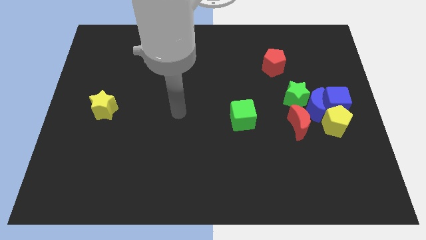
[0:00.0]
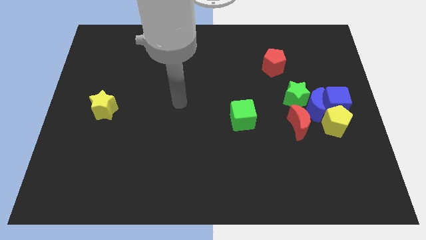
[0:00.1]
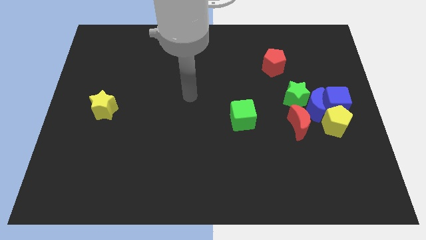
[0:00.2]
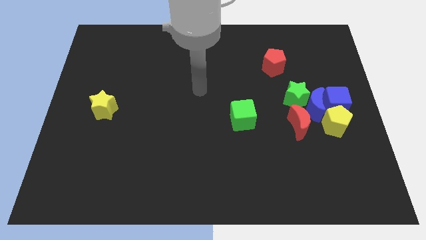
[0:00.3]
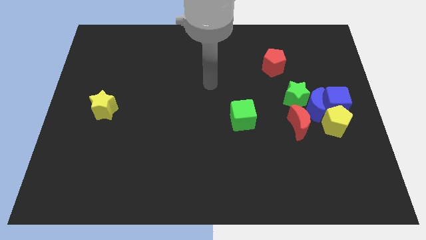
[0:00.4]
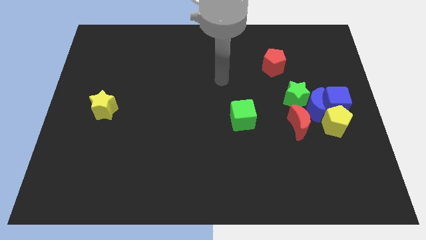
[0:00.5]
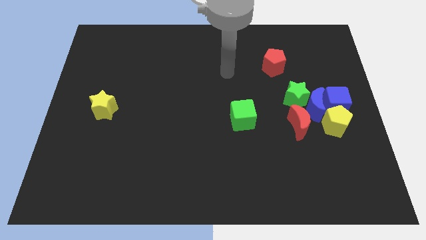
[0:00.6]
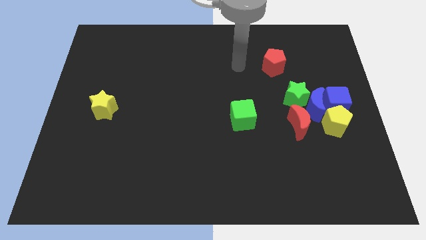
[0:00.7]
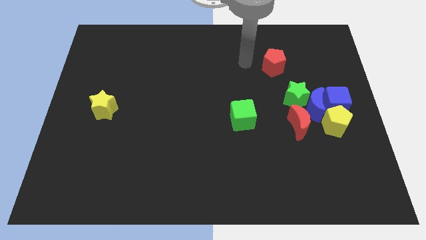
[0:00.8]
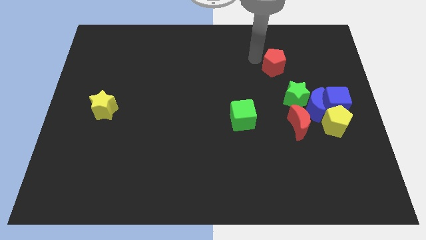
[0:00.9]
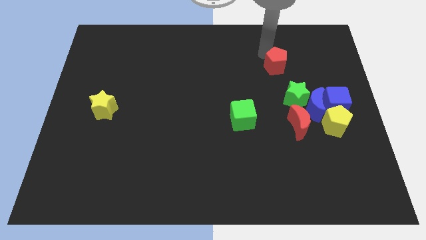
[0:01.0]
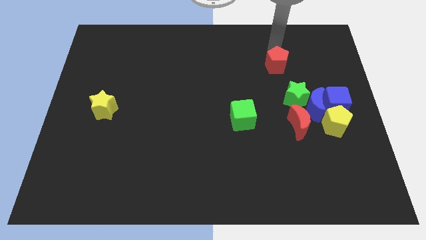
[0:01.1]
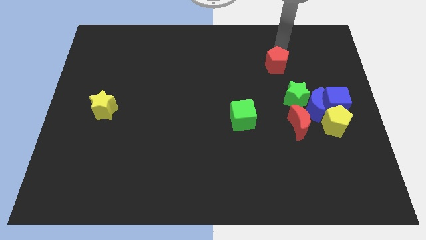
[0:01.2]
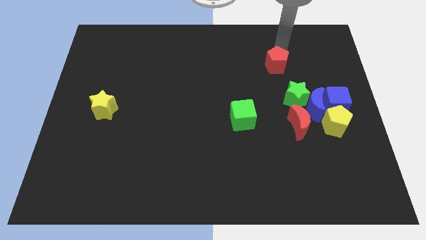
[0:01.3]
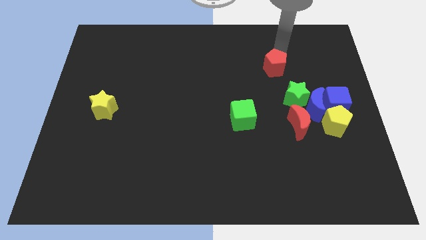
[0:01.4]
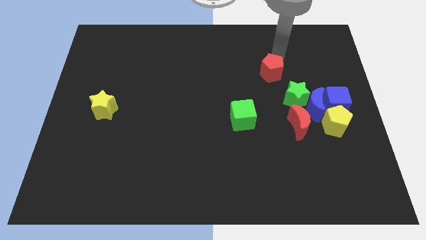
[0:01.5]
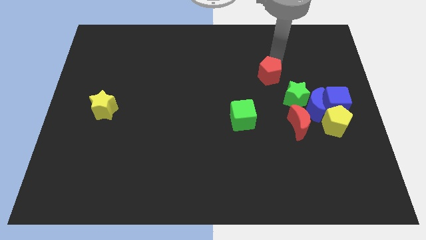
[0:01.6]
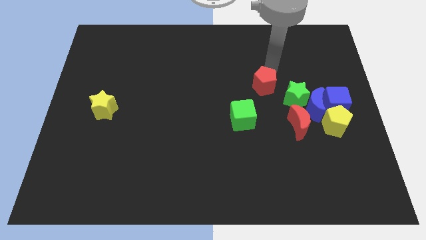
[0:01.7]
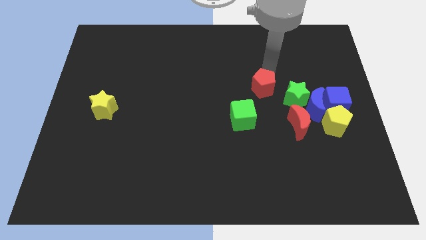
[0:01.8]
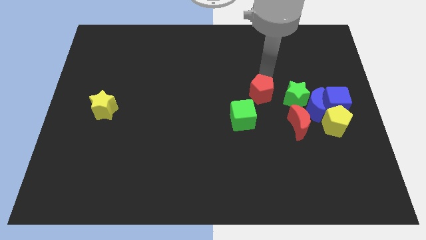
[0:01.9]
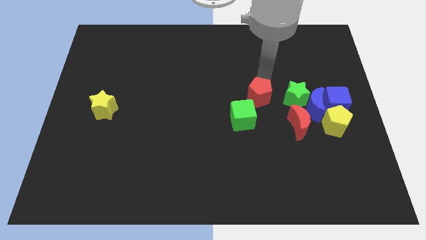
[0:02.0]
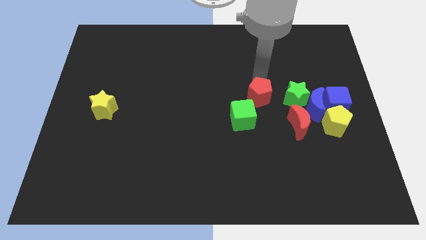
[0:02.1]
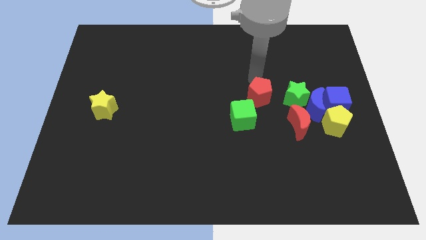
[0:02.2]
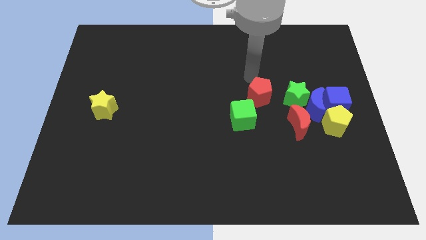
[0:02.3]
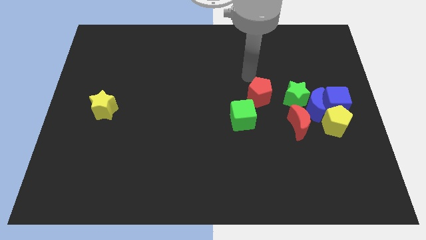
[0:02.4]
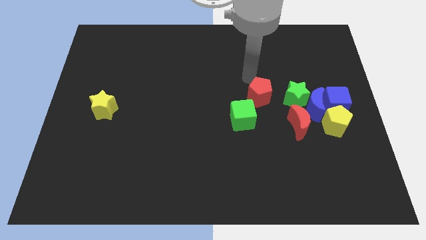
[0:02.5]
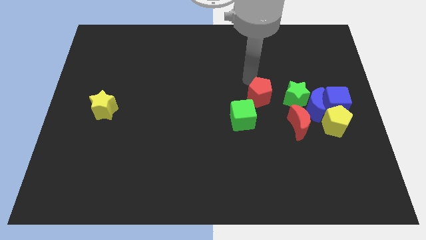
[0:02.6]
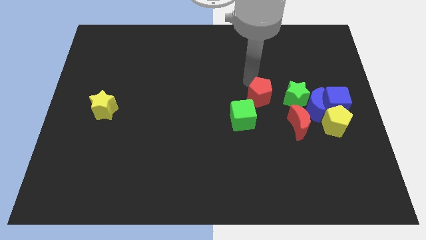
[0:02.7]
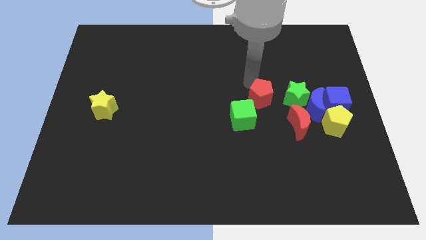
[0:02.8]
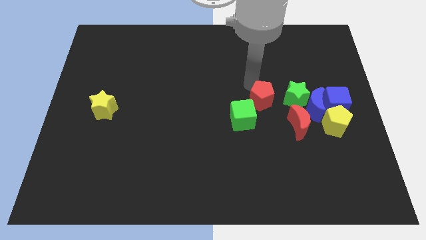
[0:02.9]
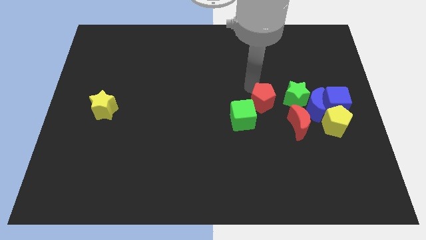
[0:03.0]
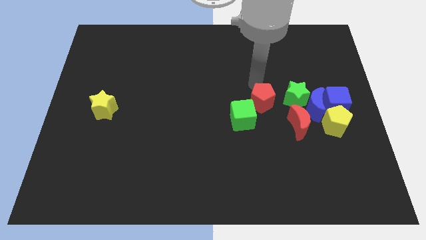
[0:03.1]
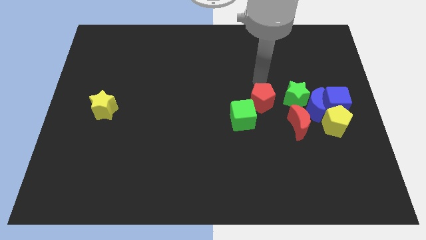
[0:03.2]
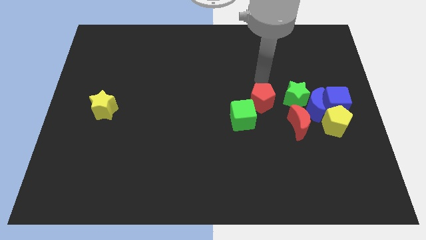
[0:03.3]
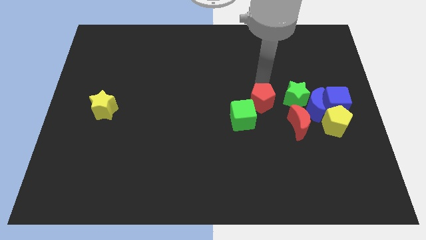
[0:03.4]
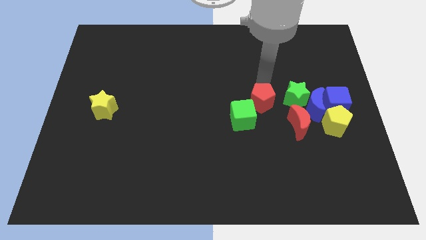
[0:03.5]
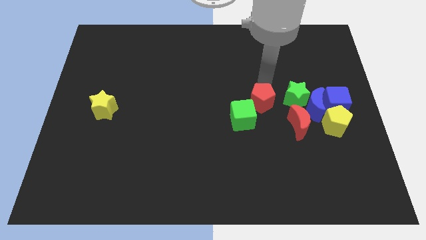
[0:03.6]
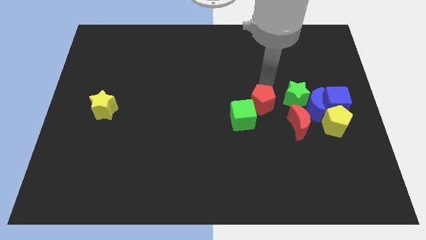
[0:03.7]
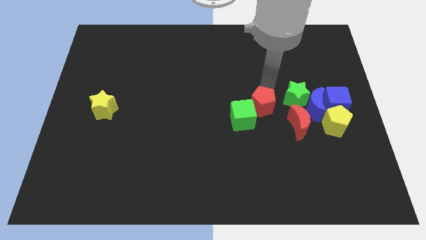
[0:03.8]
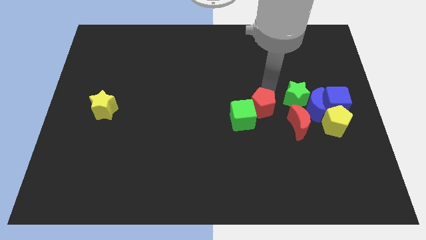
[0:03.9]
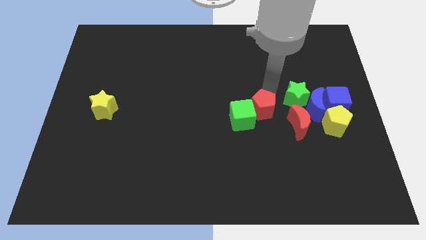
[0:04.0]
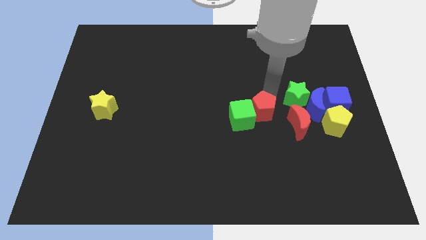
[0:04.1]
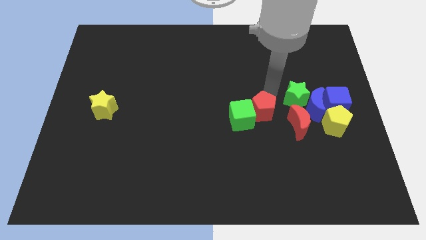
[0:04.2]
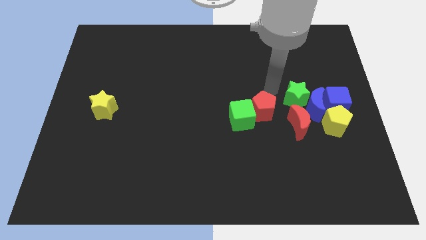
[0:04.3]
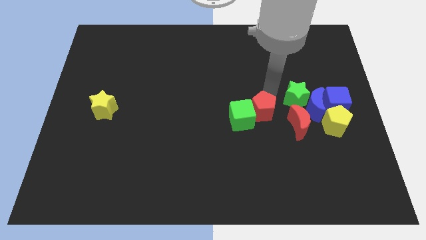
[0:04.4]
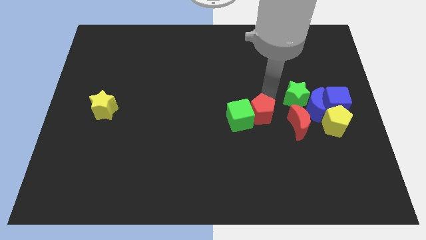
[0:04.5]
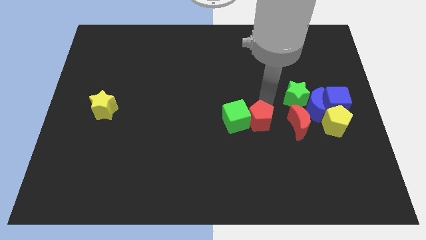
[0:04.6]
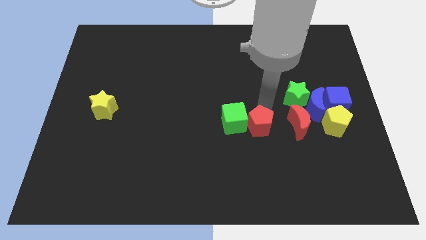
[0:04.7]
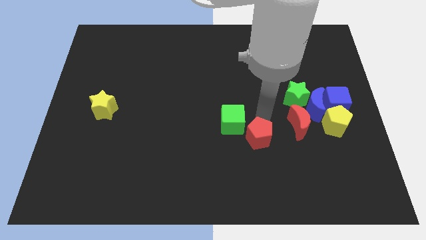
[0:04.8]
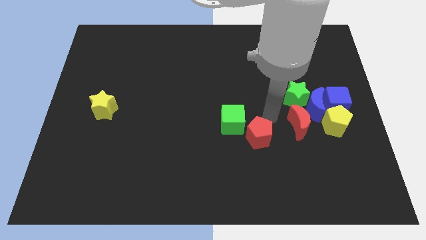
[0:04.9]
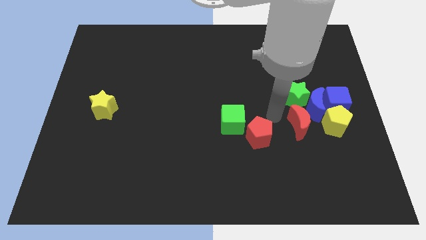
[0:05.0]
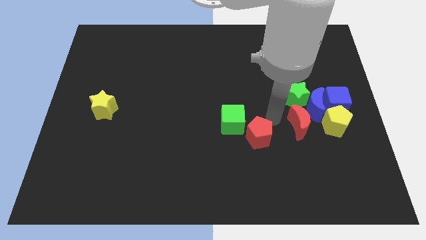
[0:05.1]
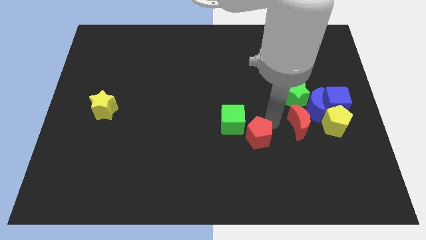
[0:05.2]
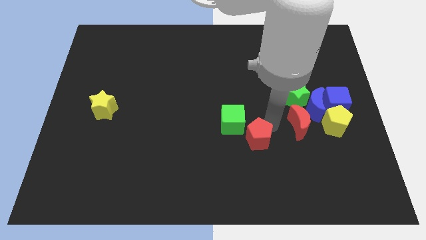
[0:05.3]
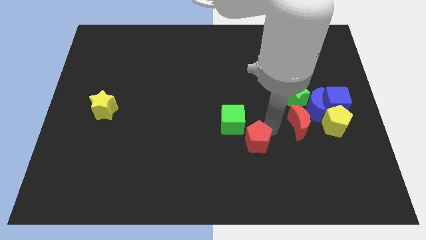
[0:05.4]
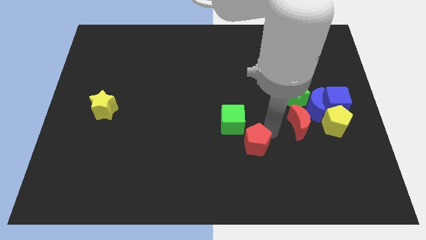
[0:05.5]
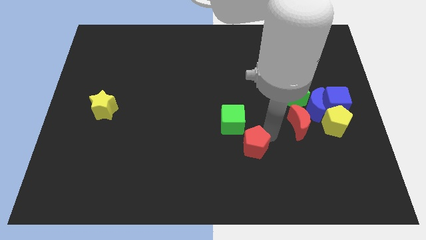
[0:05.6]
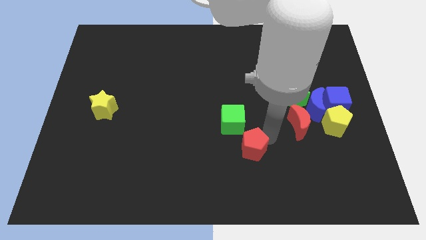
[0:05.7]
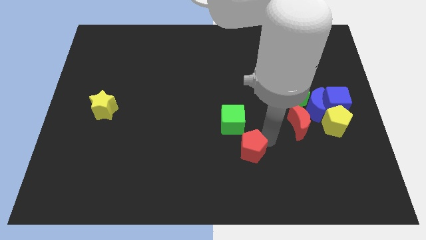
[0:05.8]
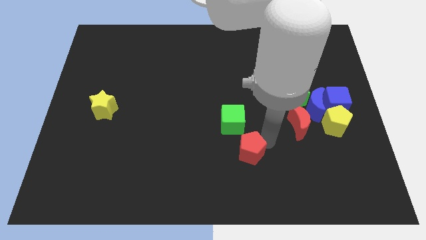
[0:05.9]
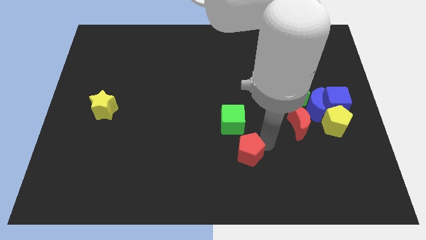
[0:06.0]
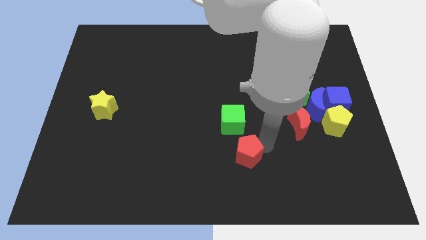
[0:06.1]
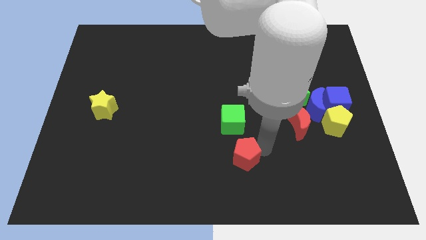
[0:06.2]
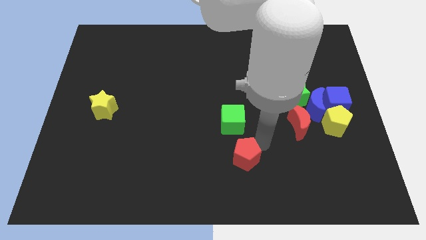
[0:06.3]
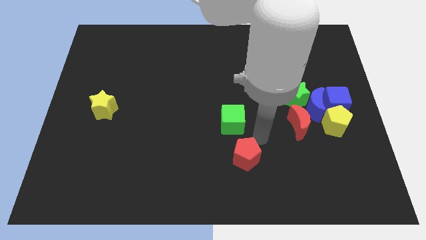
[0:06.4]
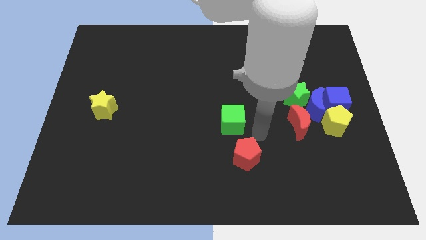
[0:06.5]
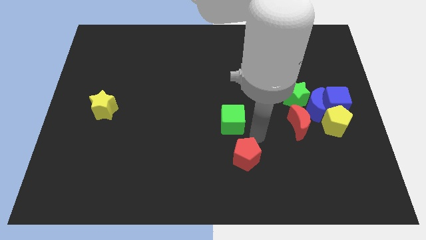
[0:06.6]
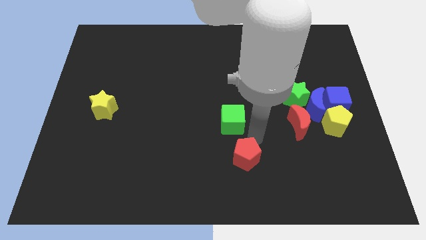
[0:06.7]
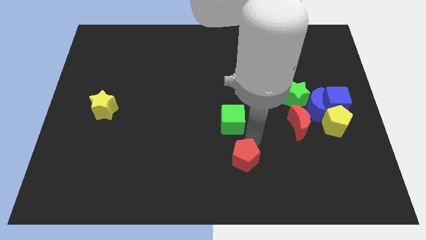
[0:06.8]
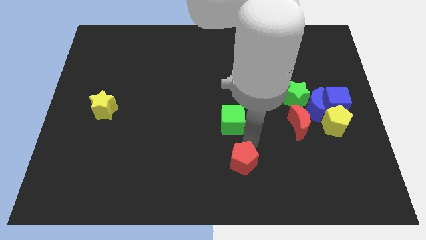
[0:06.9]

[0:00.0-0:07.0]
slide the red pentagon to the bottom side
